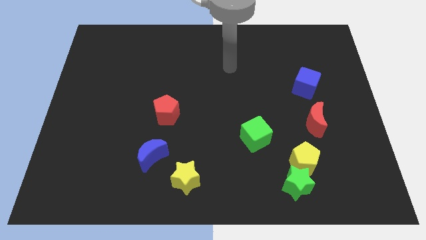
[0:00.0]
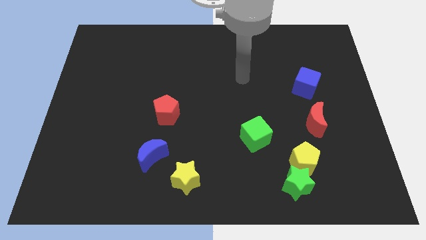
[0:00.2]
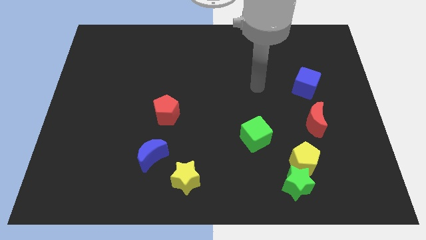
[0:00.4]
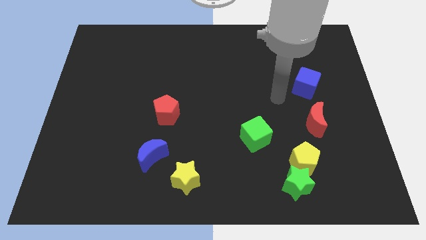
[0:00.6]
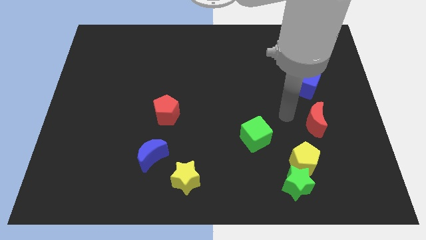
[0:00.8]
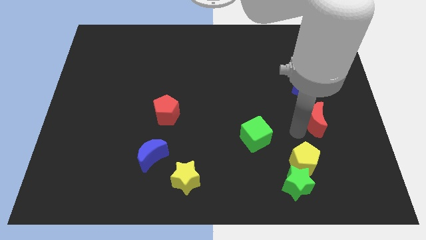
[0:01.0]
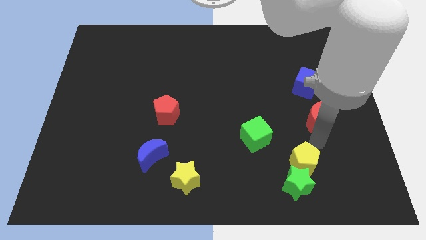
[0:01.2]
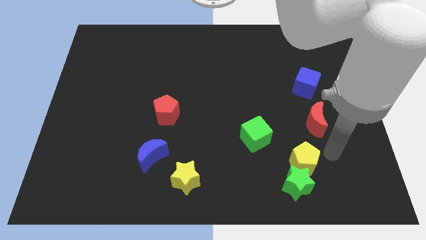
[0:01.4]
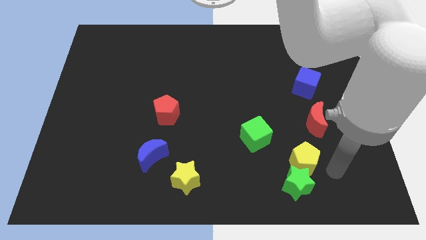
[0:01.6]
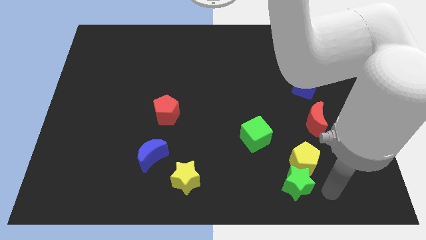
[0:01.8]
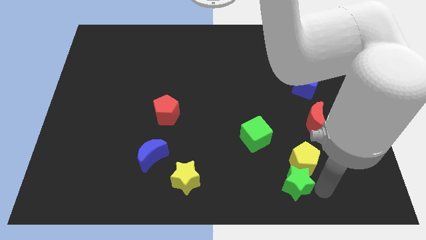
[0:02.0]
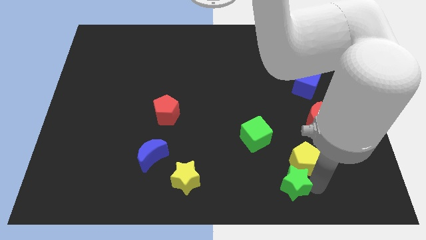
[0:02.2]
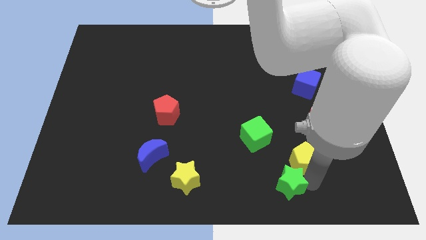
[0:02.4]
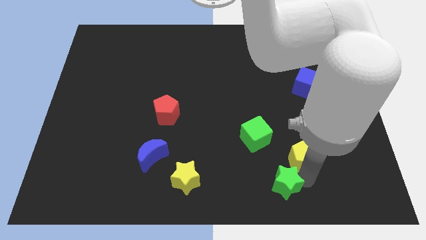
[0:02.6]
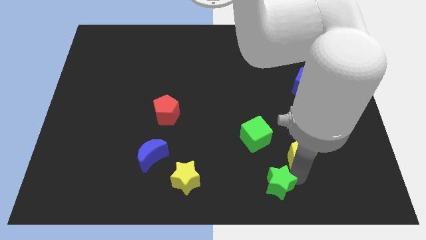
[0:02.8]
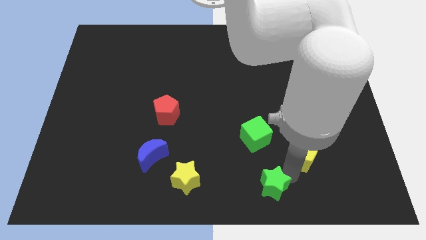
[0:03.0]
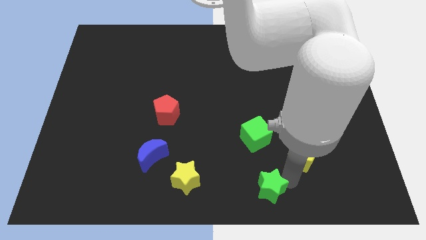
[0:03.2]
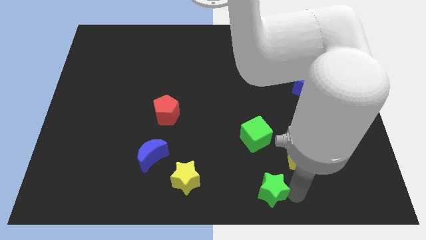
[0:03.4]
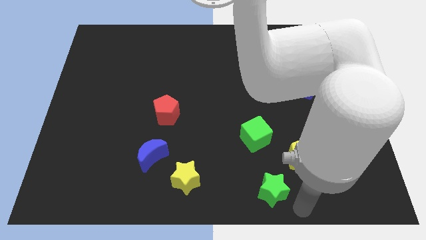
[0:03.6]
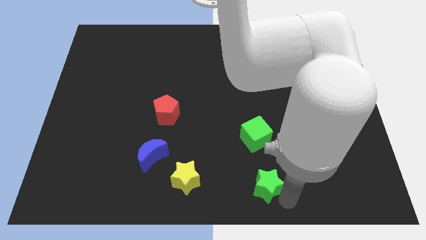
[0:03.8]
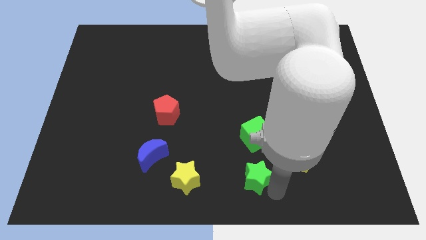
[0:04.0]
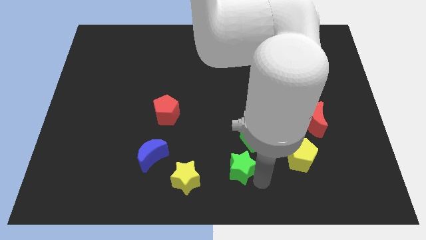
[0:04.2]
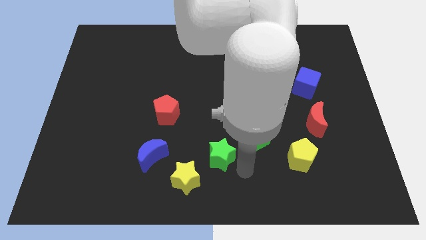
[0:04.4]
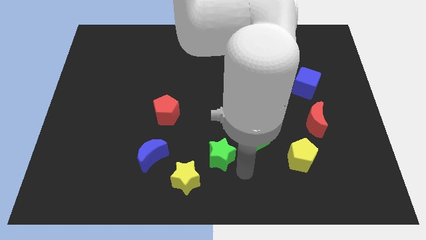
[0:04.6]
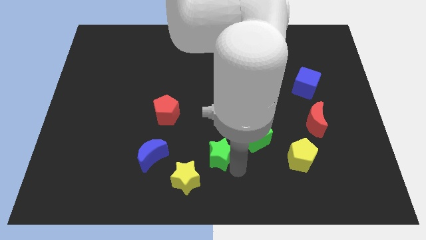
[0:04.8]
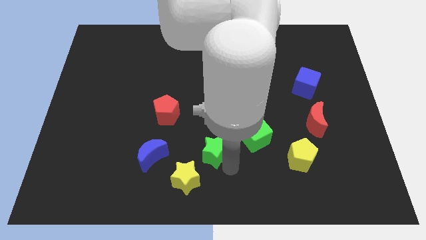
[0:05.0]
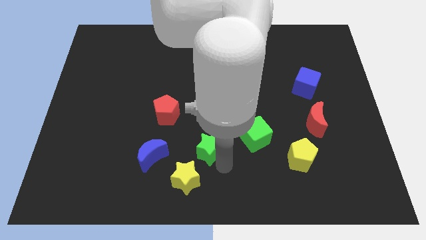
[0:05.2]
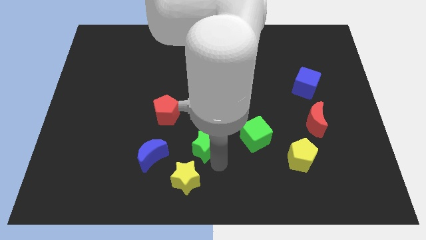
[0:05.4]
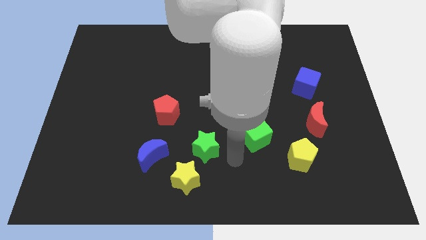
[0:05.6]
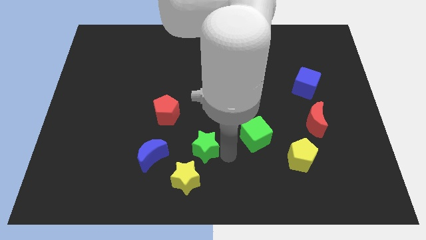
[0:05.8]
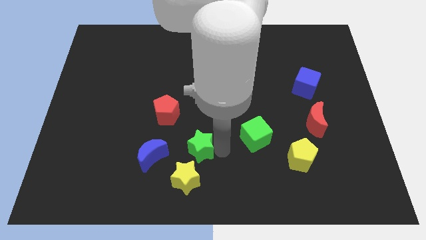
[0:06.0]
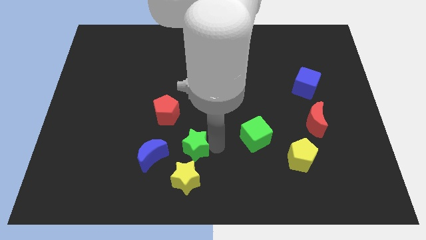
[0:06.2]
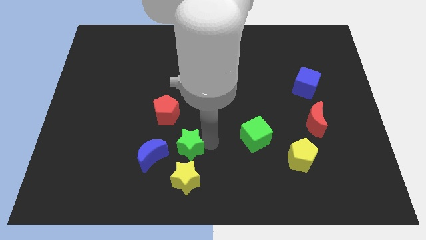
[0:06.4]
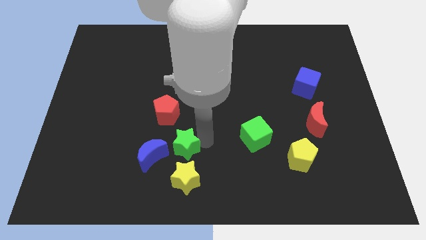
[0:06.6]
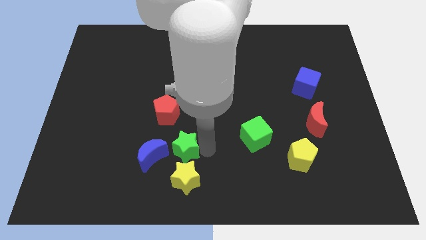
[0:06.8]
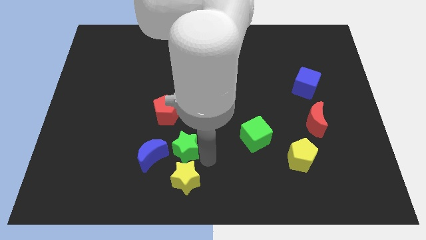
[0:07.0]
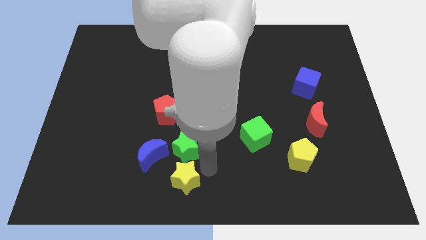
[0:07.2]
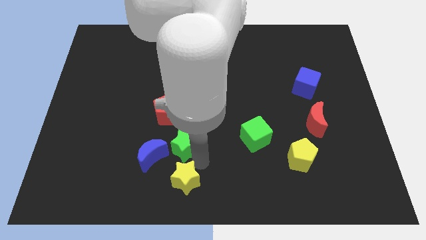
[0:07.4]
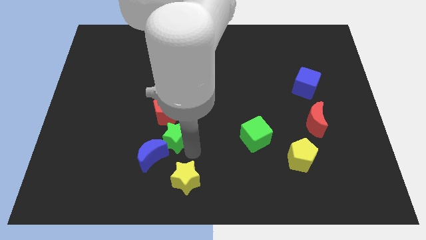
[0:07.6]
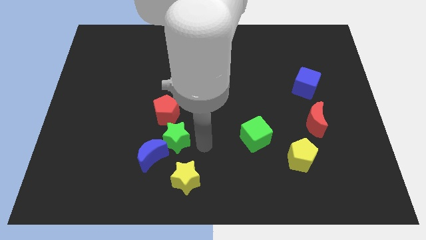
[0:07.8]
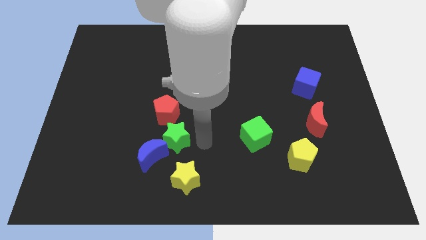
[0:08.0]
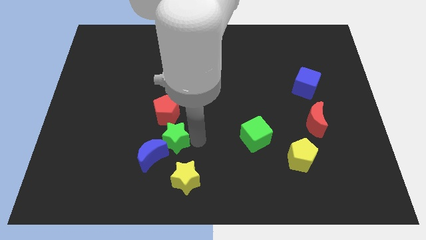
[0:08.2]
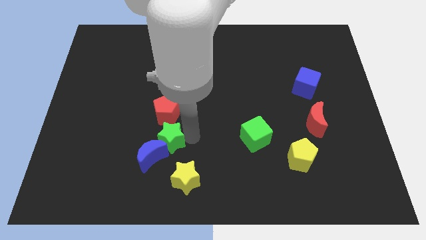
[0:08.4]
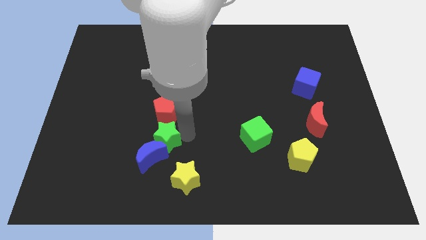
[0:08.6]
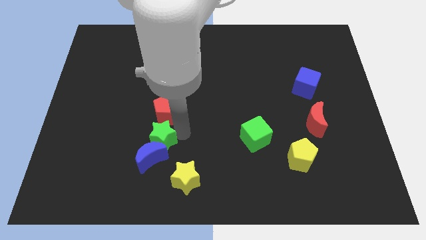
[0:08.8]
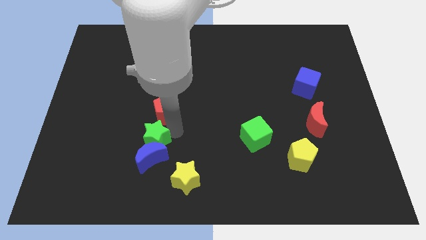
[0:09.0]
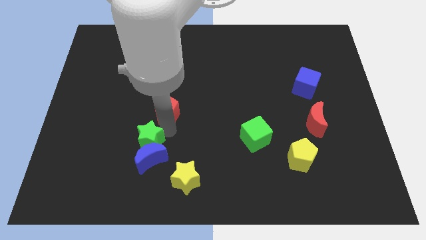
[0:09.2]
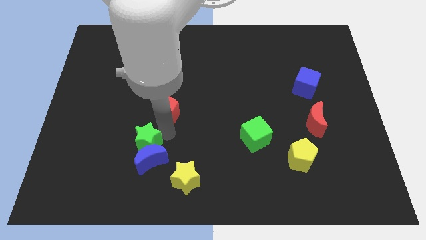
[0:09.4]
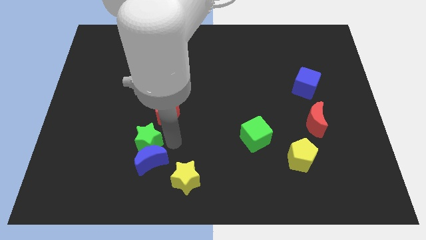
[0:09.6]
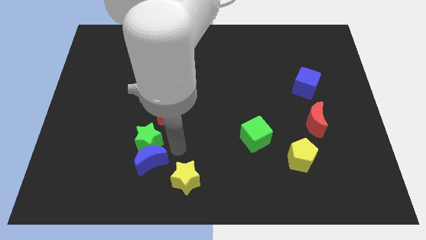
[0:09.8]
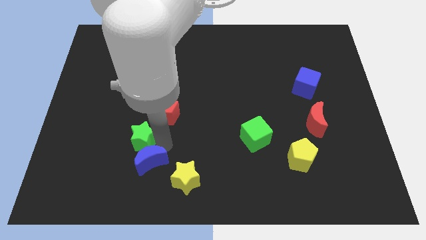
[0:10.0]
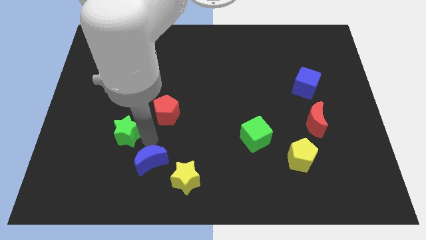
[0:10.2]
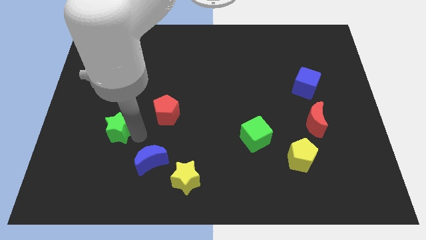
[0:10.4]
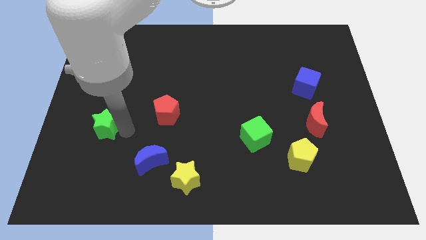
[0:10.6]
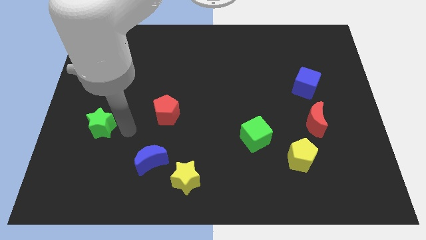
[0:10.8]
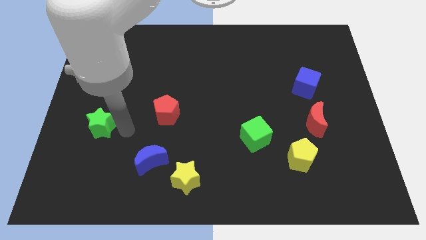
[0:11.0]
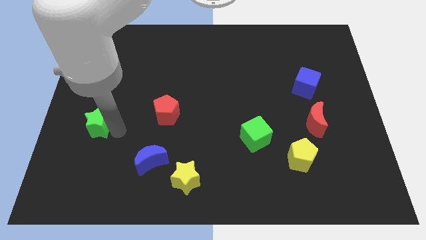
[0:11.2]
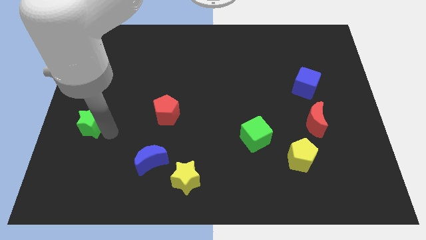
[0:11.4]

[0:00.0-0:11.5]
slide the green star to the left side

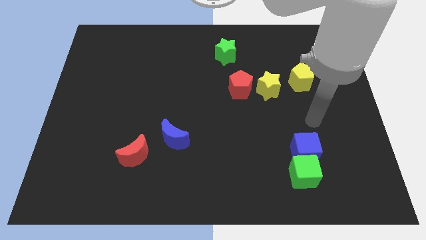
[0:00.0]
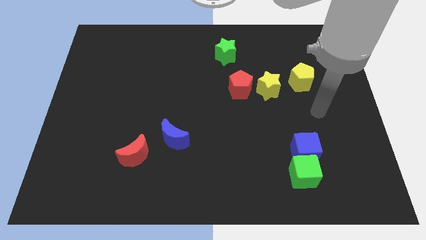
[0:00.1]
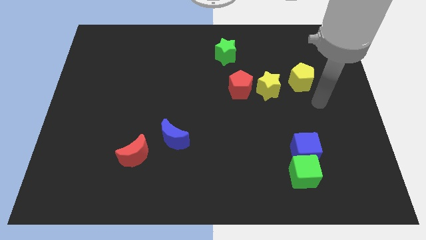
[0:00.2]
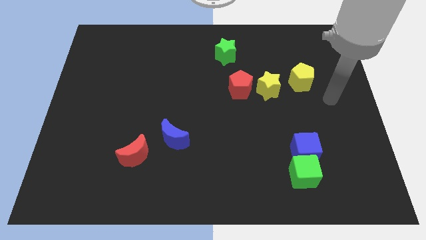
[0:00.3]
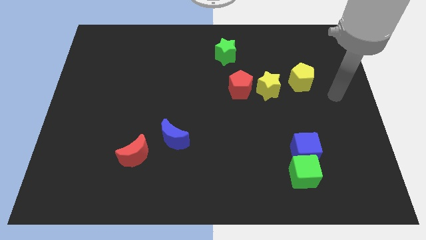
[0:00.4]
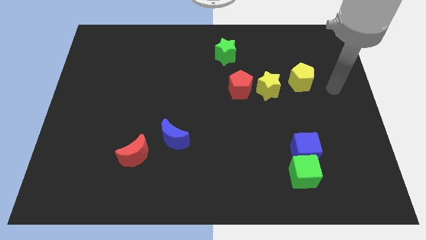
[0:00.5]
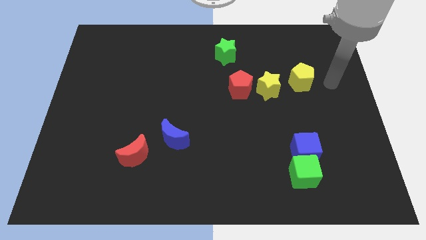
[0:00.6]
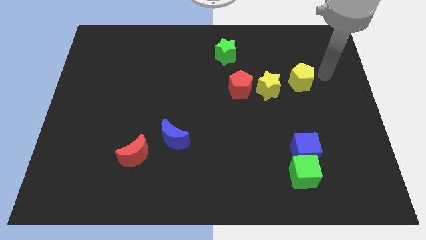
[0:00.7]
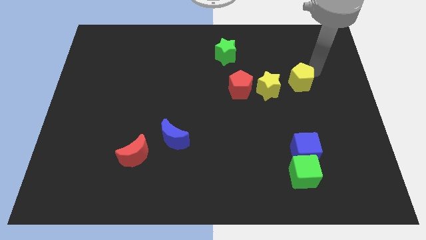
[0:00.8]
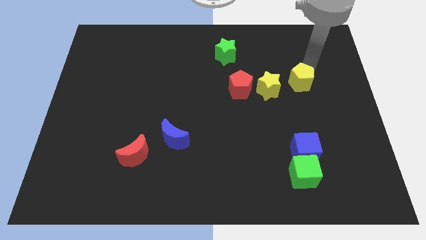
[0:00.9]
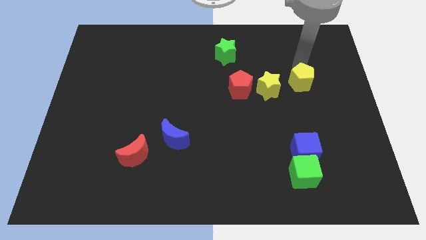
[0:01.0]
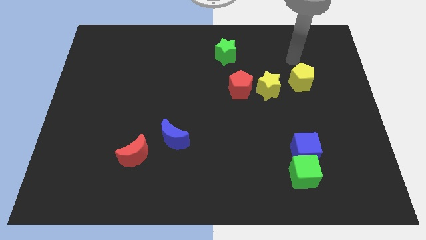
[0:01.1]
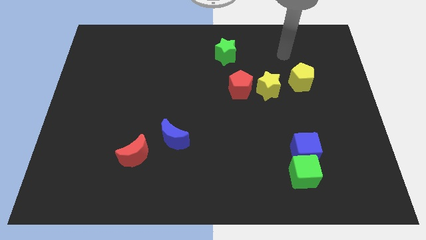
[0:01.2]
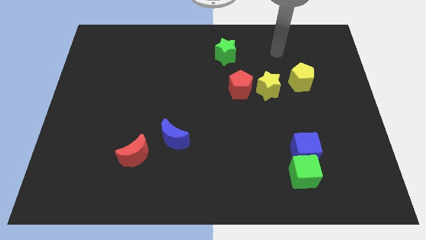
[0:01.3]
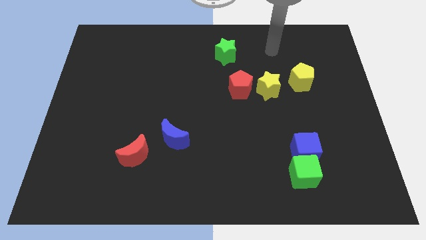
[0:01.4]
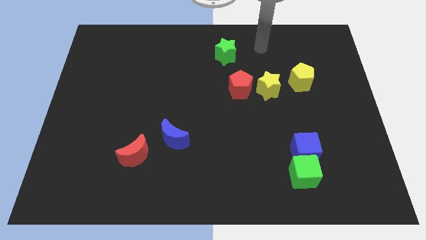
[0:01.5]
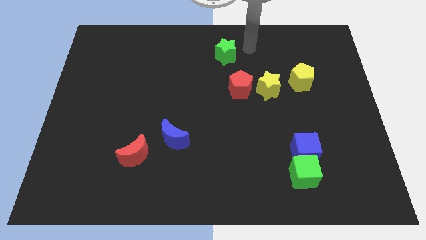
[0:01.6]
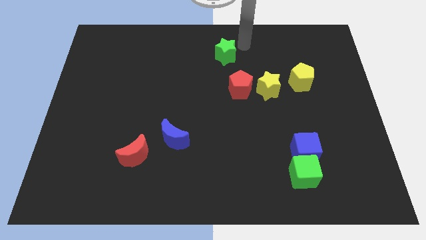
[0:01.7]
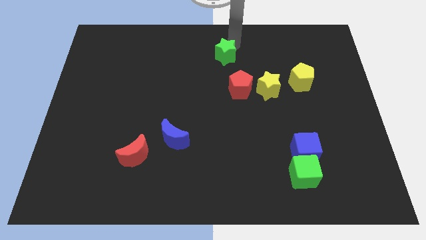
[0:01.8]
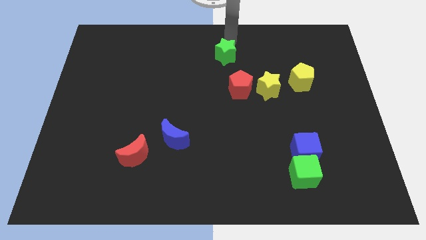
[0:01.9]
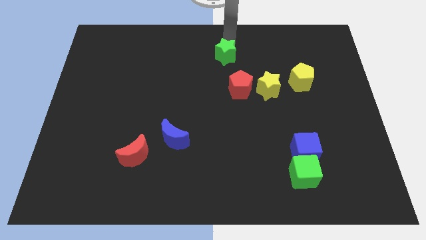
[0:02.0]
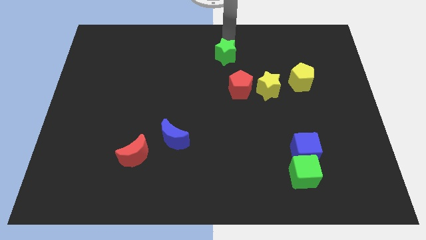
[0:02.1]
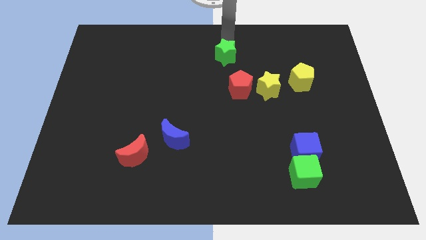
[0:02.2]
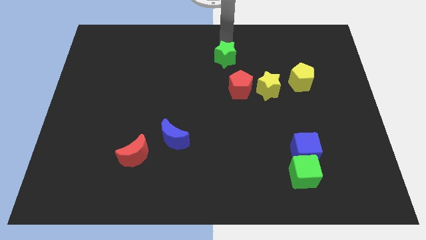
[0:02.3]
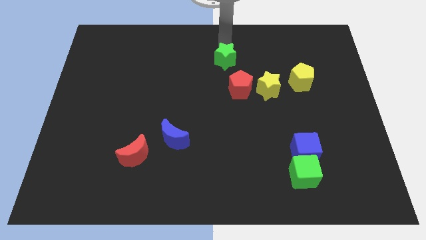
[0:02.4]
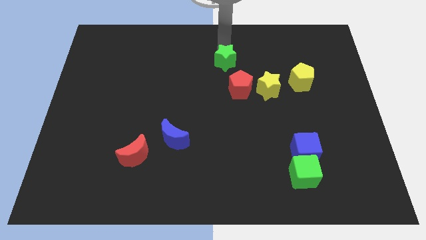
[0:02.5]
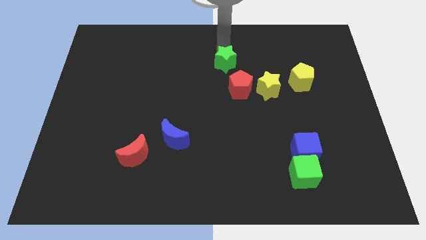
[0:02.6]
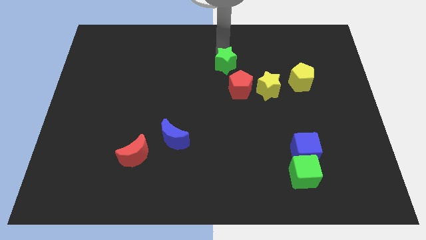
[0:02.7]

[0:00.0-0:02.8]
push the green star to the center
